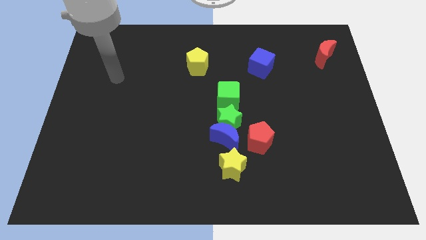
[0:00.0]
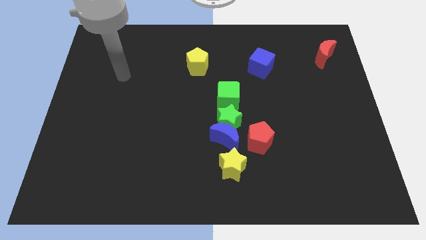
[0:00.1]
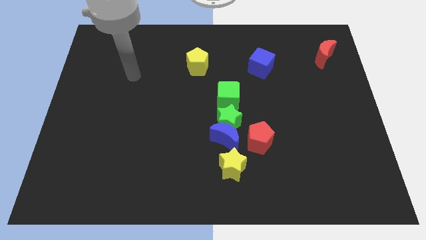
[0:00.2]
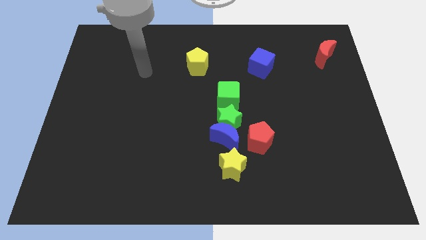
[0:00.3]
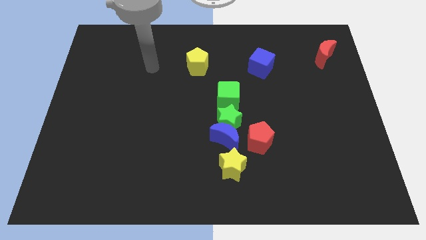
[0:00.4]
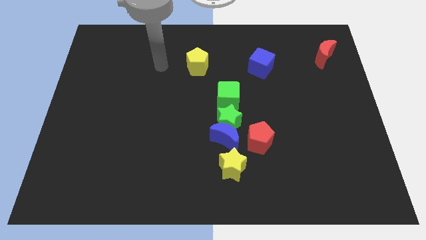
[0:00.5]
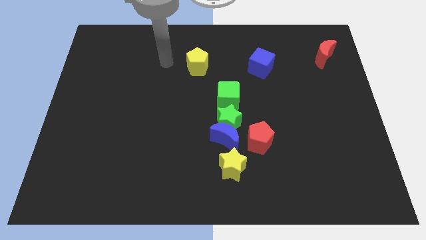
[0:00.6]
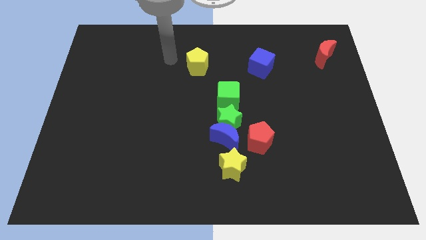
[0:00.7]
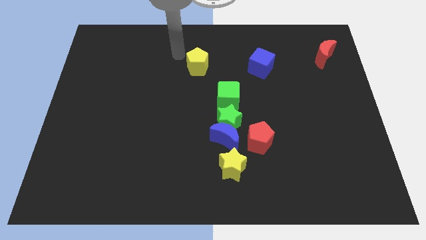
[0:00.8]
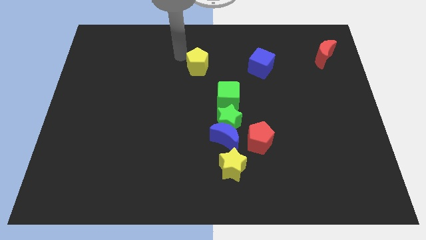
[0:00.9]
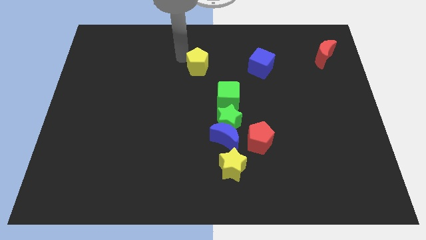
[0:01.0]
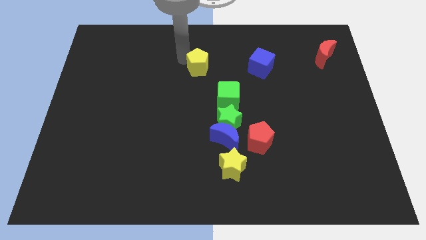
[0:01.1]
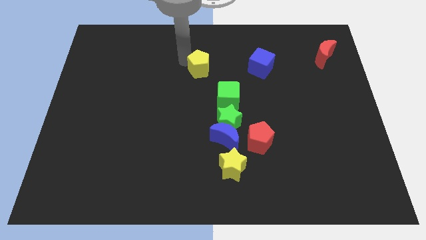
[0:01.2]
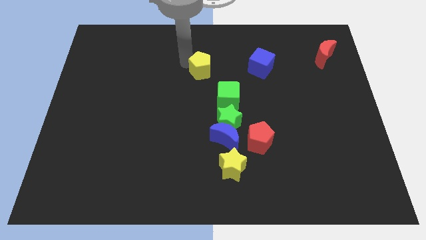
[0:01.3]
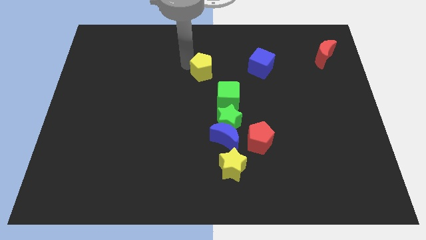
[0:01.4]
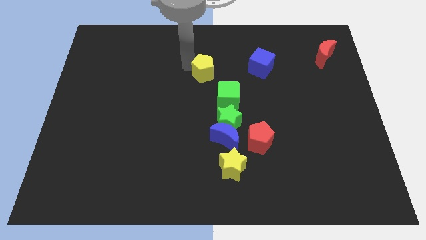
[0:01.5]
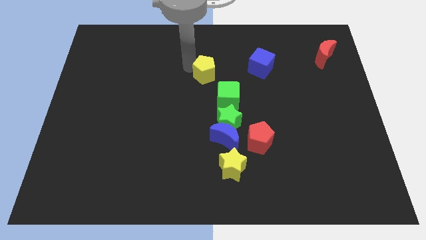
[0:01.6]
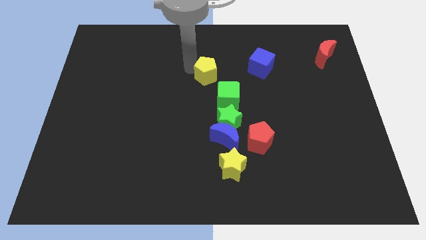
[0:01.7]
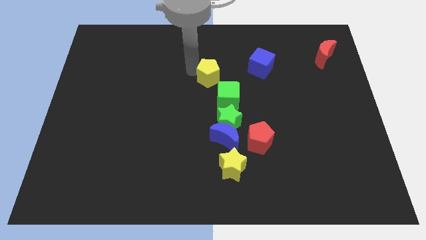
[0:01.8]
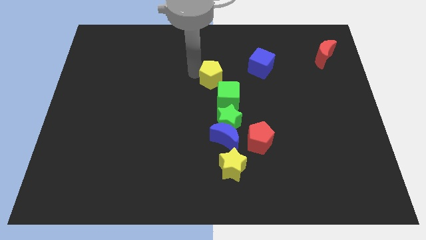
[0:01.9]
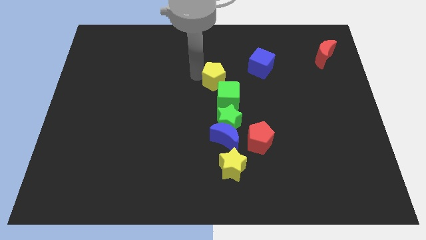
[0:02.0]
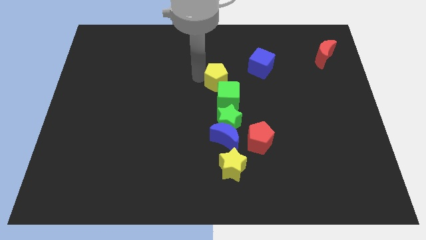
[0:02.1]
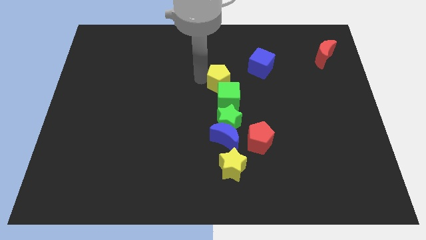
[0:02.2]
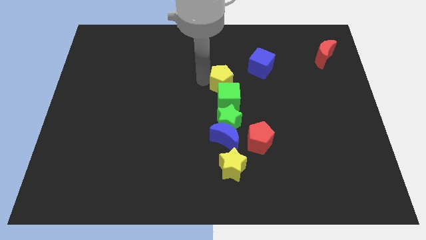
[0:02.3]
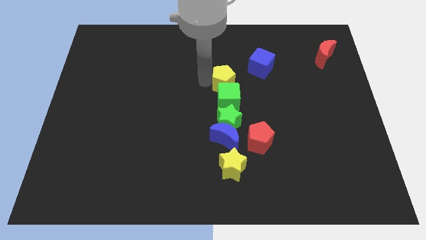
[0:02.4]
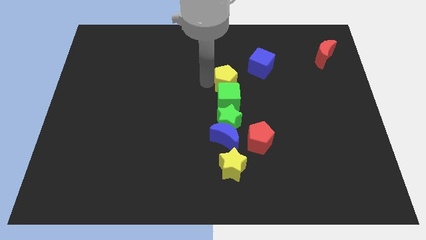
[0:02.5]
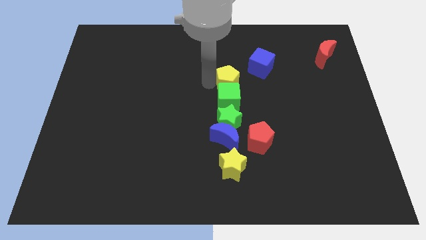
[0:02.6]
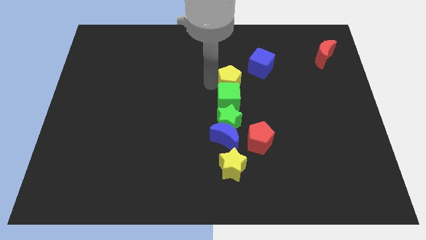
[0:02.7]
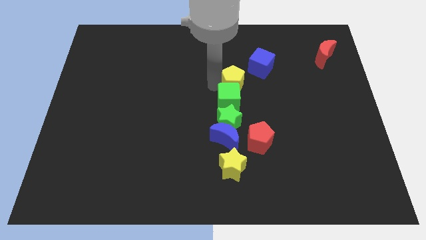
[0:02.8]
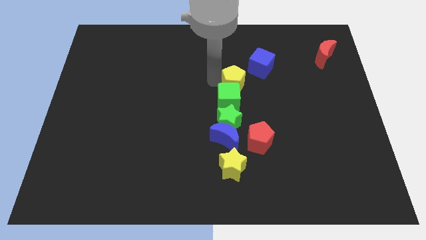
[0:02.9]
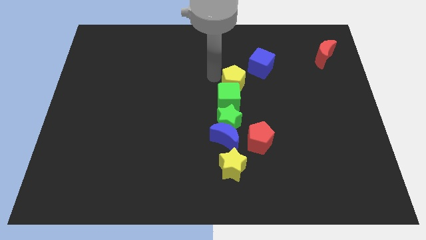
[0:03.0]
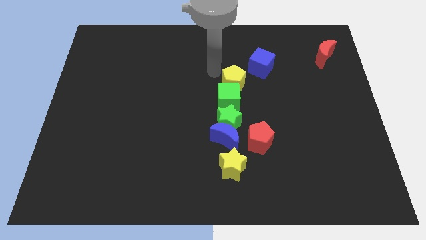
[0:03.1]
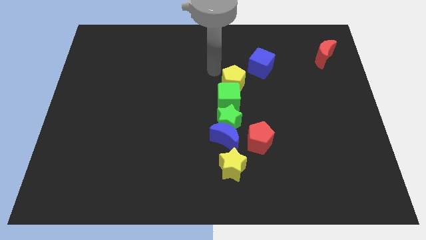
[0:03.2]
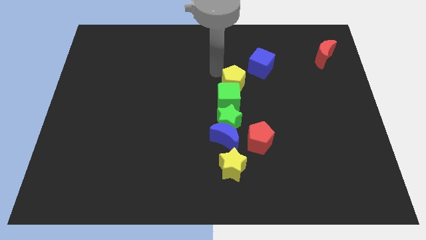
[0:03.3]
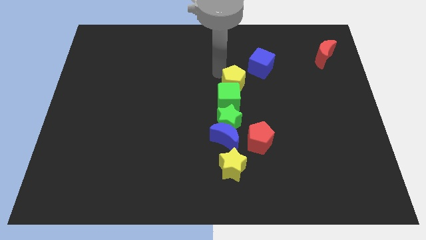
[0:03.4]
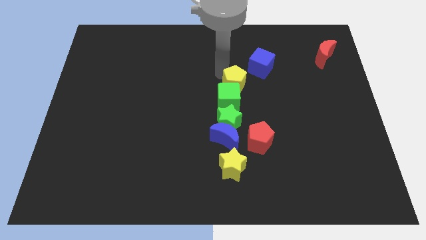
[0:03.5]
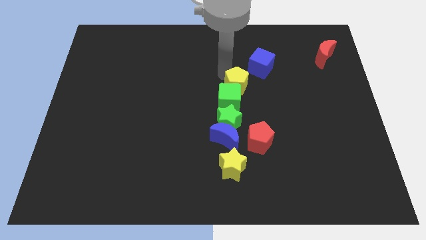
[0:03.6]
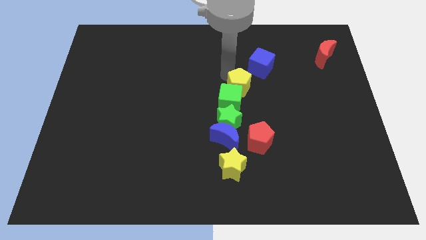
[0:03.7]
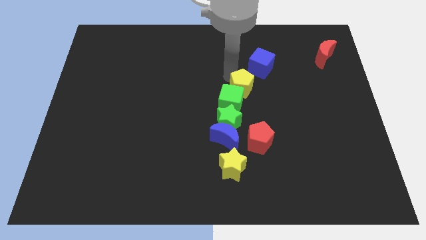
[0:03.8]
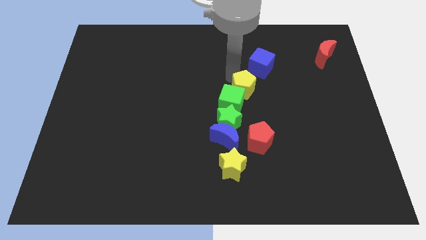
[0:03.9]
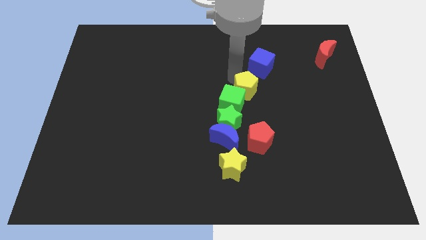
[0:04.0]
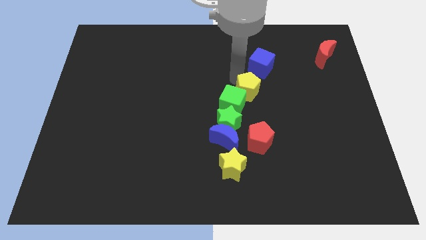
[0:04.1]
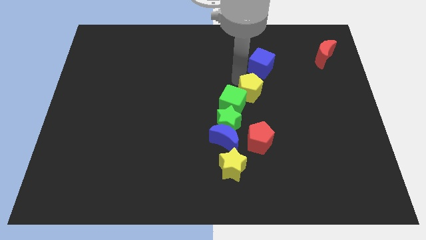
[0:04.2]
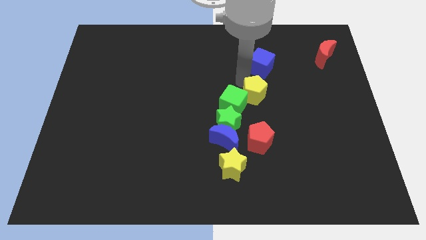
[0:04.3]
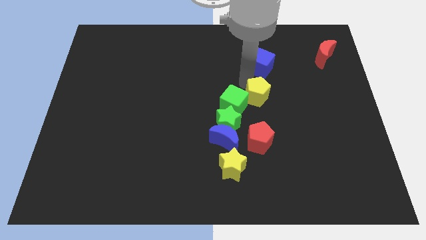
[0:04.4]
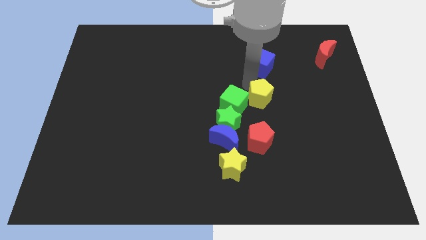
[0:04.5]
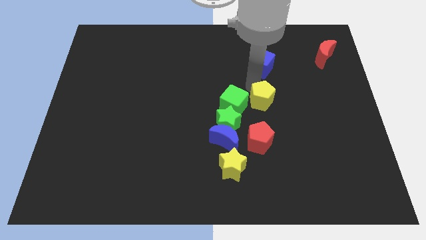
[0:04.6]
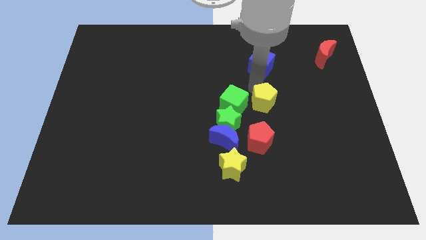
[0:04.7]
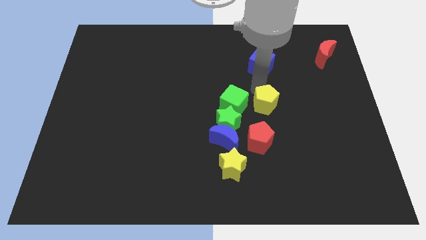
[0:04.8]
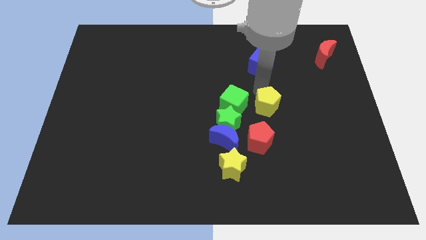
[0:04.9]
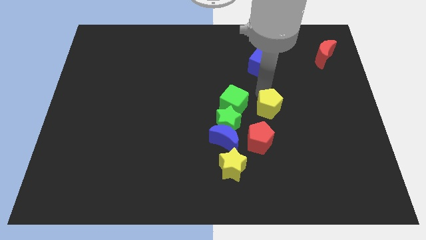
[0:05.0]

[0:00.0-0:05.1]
push the yellow pentagon to the top right side of the red pentagon

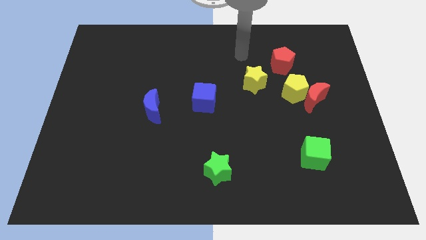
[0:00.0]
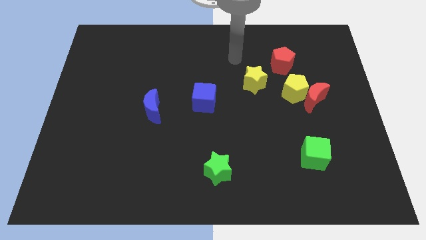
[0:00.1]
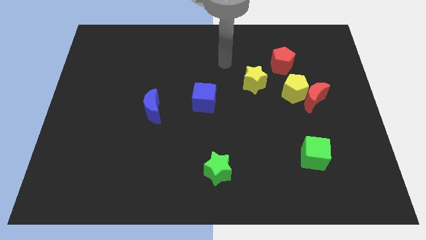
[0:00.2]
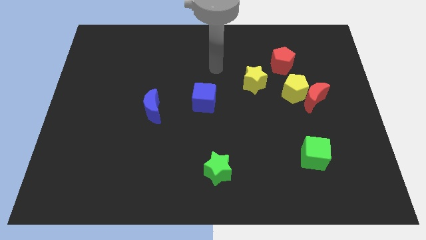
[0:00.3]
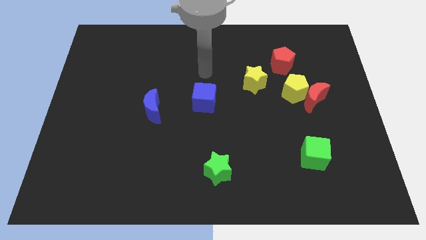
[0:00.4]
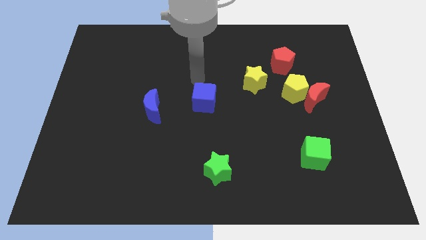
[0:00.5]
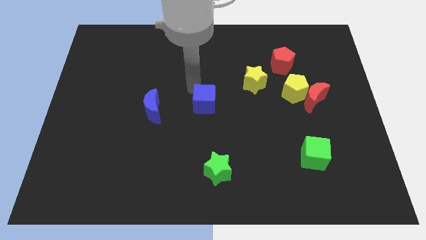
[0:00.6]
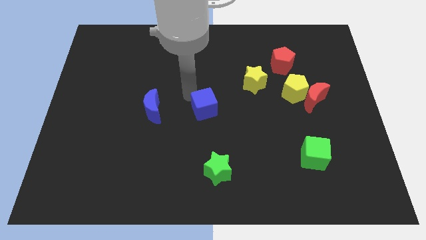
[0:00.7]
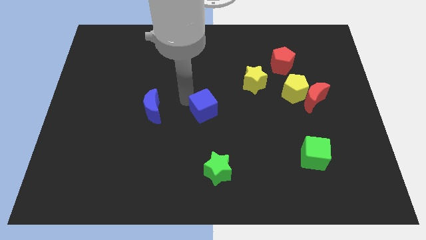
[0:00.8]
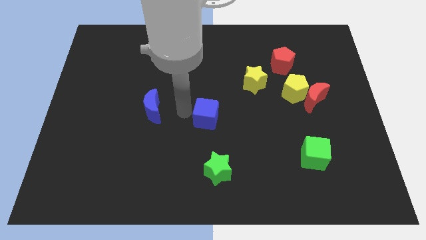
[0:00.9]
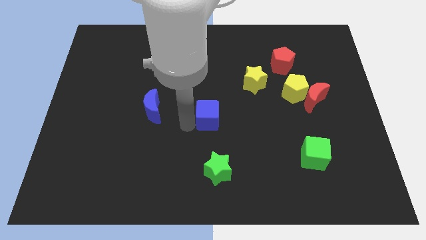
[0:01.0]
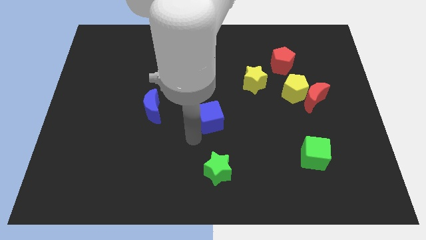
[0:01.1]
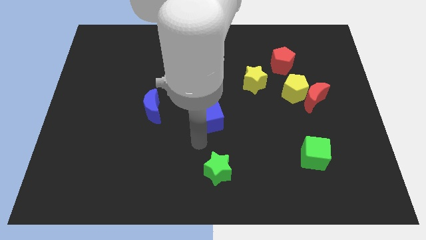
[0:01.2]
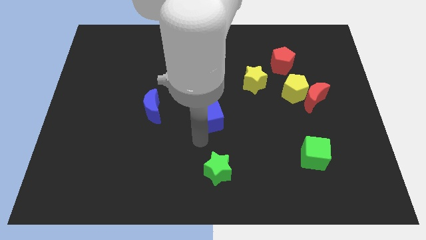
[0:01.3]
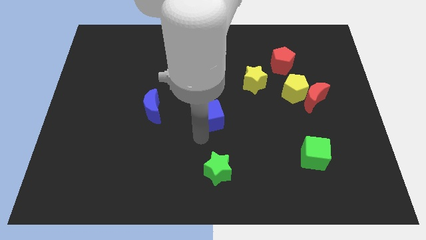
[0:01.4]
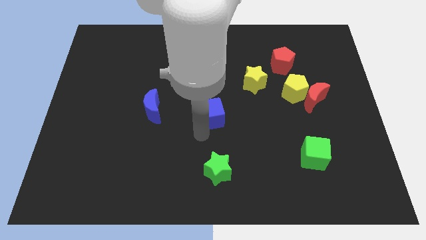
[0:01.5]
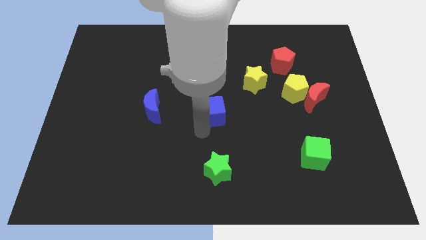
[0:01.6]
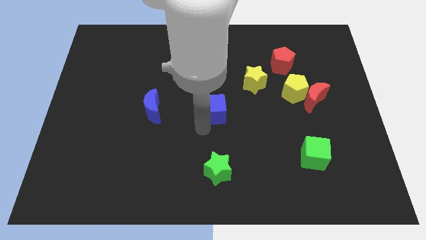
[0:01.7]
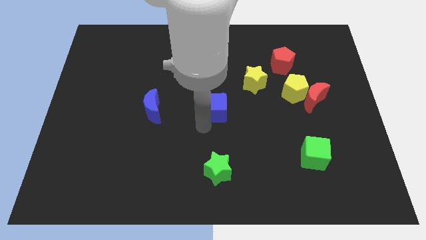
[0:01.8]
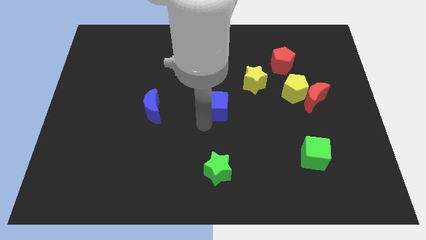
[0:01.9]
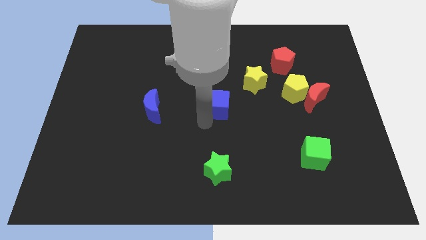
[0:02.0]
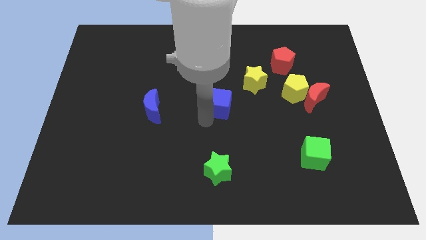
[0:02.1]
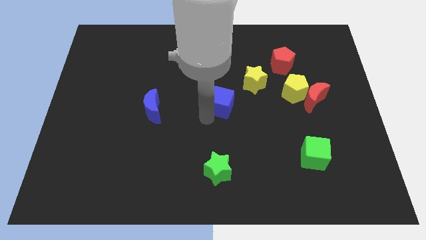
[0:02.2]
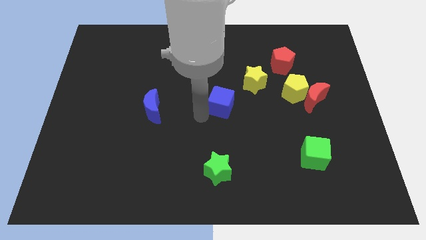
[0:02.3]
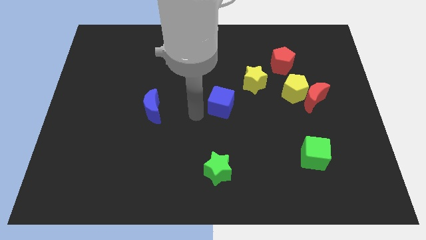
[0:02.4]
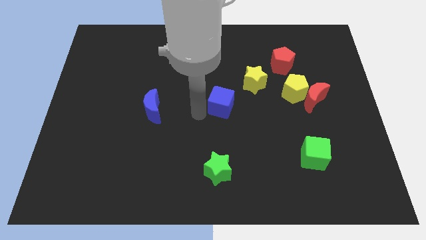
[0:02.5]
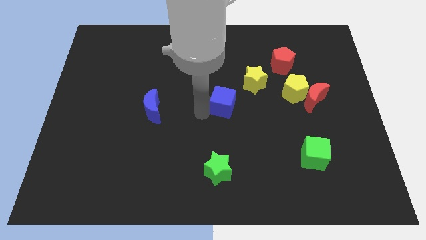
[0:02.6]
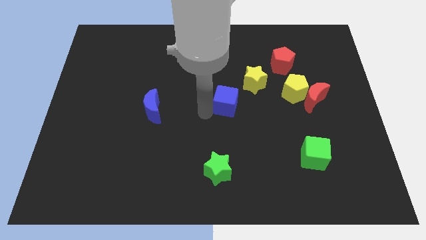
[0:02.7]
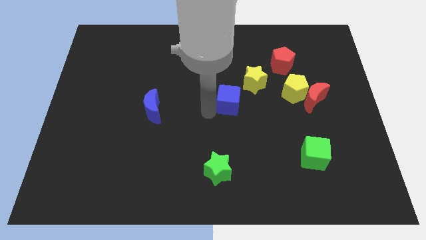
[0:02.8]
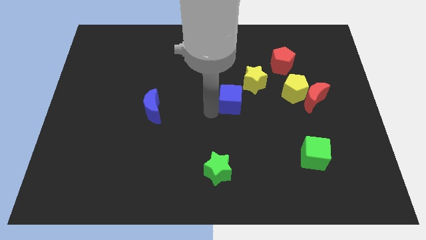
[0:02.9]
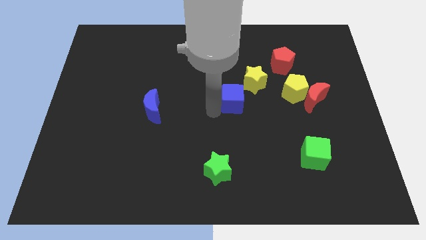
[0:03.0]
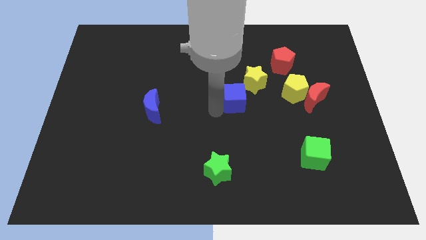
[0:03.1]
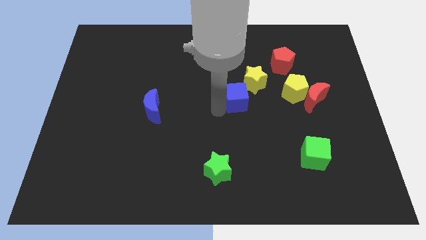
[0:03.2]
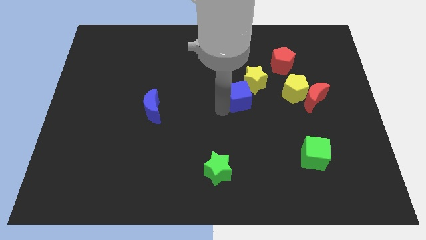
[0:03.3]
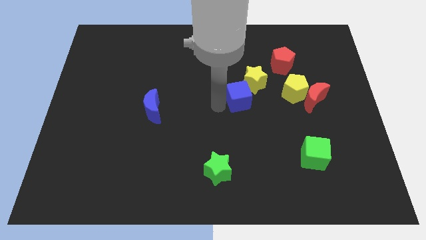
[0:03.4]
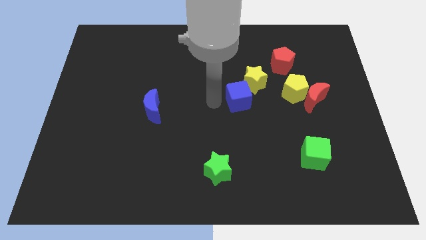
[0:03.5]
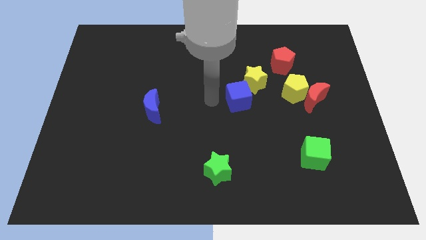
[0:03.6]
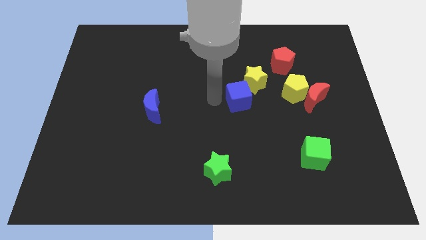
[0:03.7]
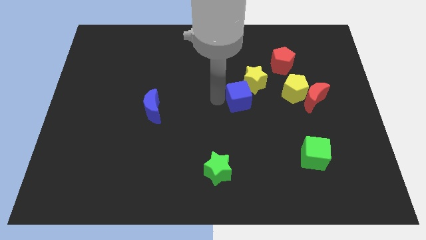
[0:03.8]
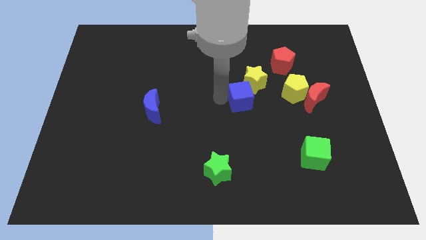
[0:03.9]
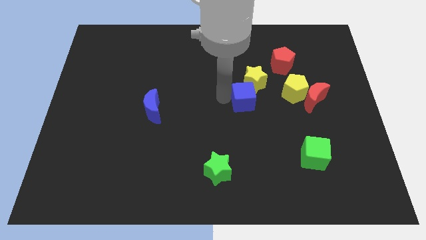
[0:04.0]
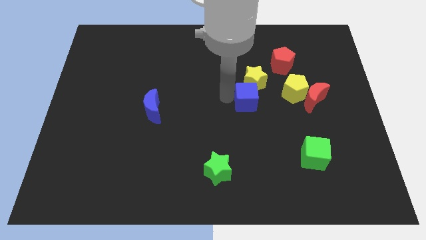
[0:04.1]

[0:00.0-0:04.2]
push the blue cube just left of the red moon
